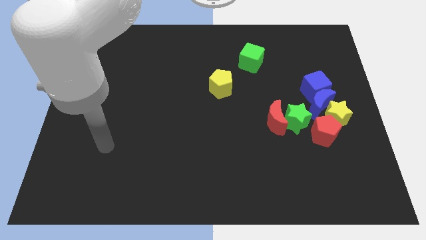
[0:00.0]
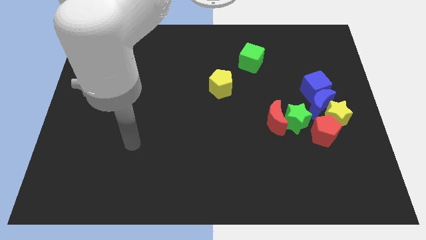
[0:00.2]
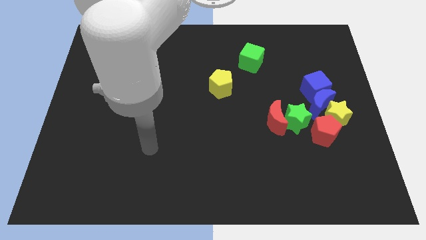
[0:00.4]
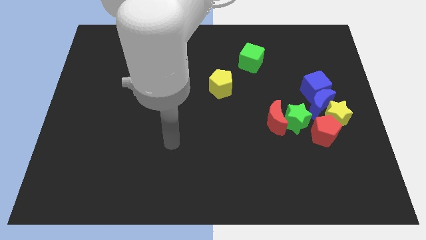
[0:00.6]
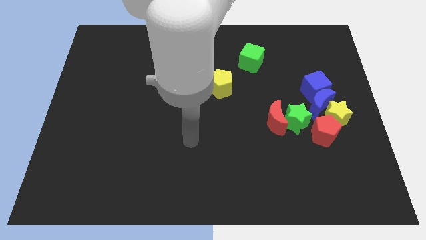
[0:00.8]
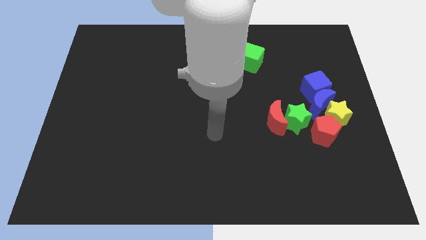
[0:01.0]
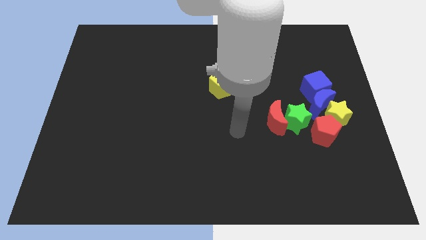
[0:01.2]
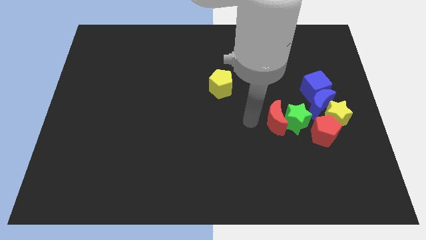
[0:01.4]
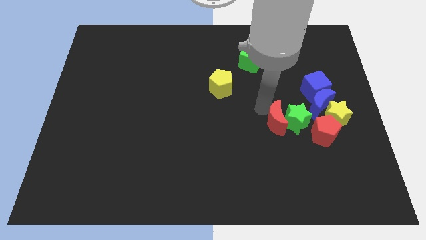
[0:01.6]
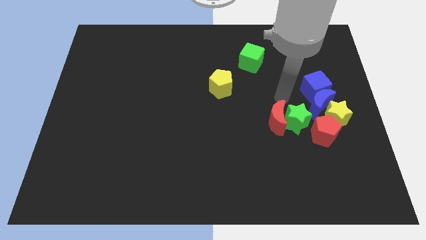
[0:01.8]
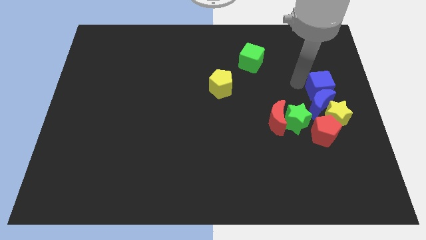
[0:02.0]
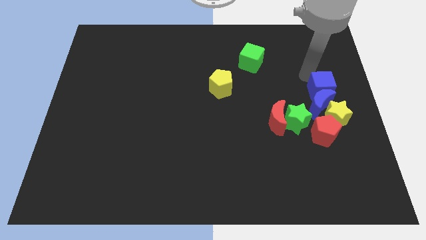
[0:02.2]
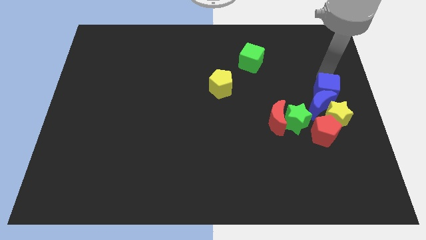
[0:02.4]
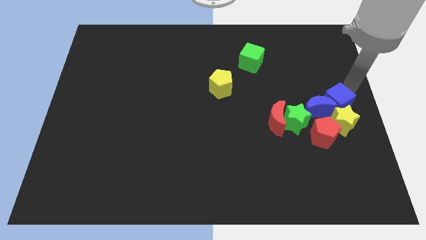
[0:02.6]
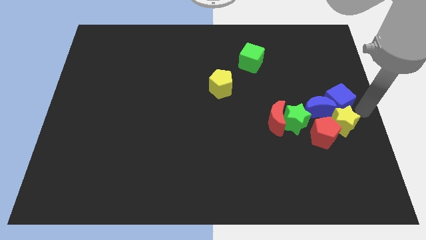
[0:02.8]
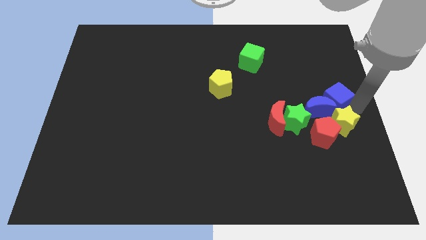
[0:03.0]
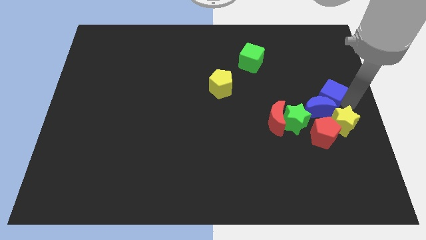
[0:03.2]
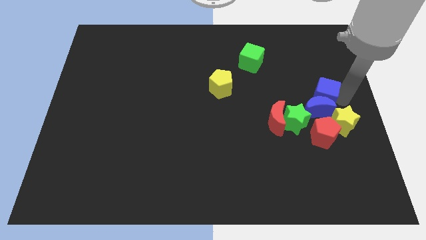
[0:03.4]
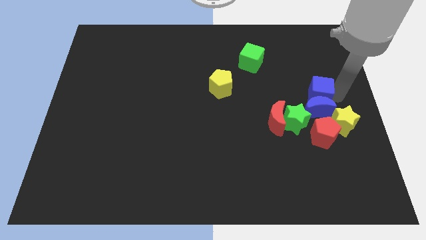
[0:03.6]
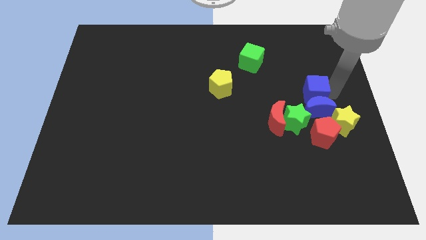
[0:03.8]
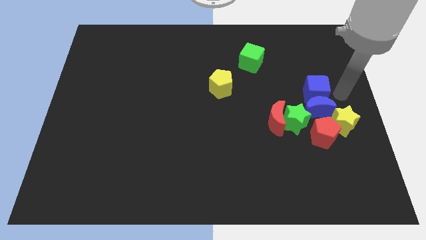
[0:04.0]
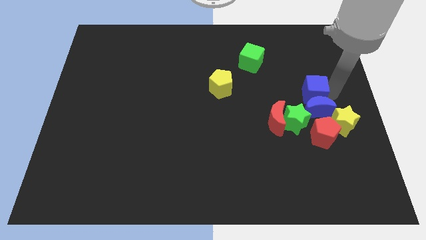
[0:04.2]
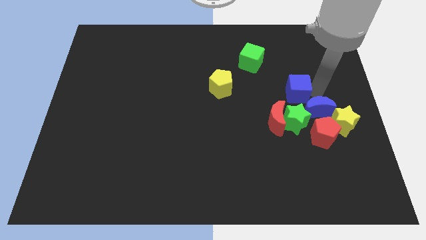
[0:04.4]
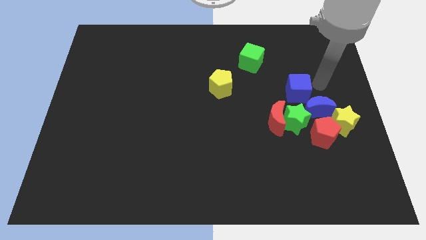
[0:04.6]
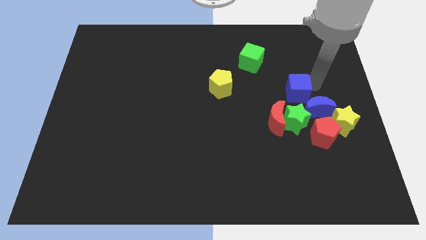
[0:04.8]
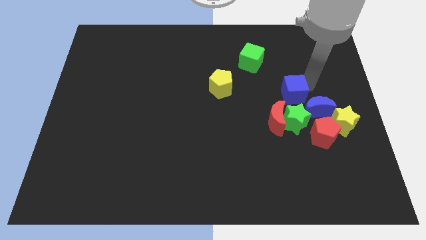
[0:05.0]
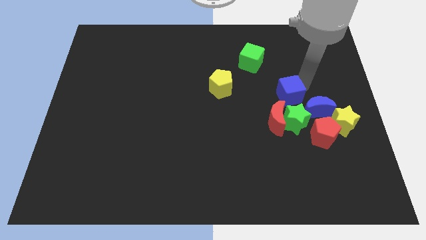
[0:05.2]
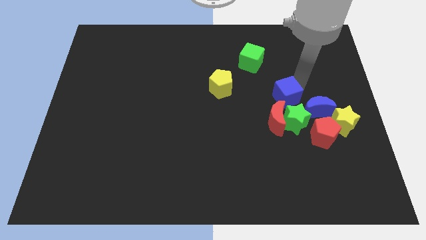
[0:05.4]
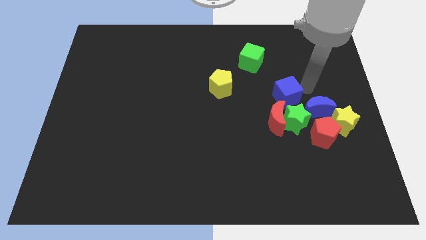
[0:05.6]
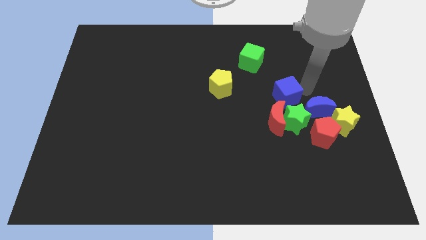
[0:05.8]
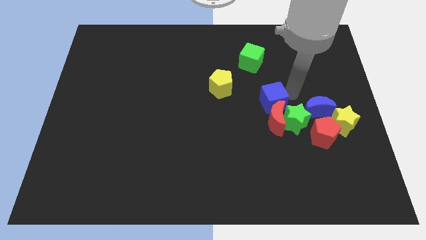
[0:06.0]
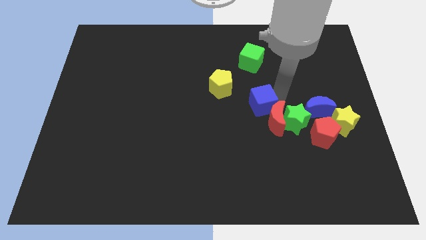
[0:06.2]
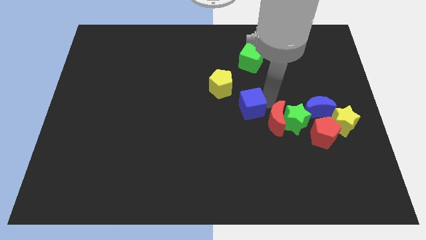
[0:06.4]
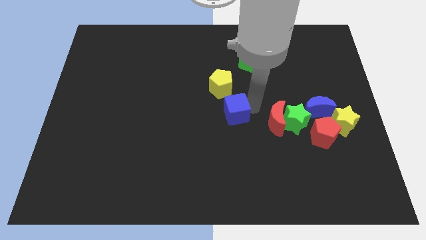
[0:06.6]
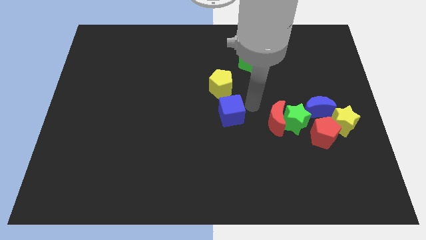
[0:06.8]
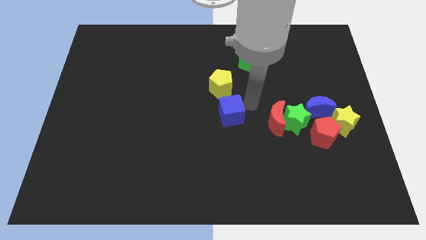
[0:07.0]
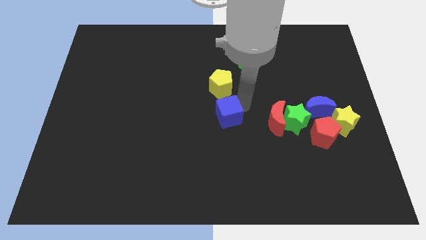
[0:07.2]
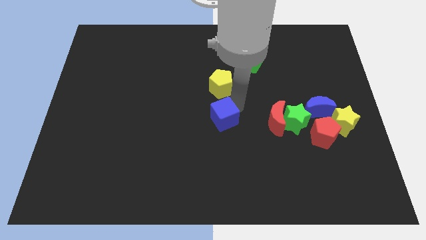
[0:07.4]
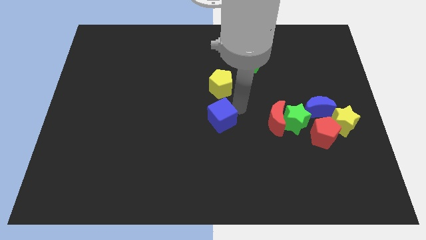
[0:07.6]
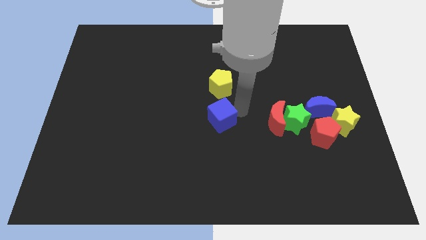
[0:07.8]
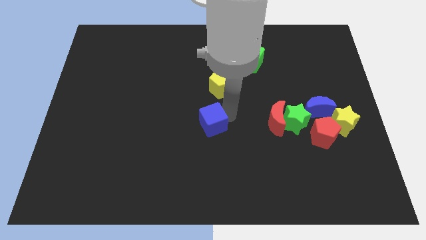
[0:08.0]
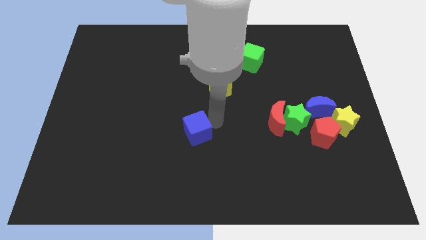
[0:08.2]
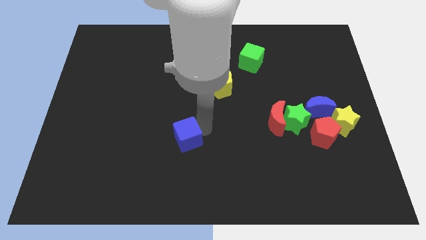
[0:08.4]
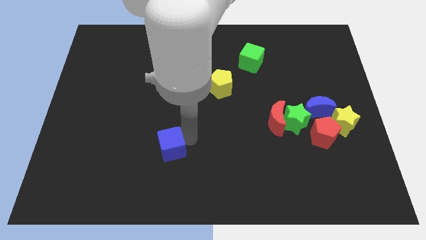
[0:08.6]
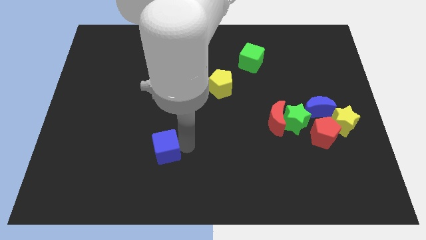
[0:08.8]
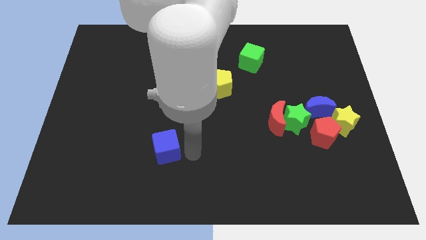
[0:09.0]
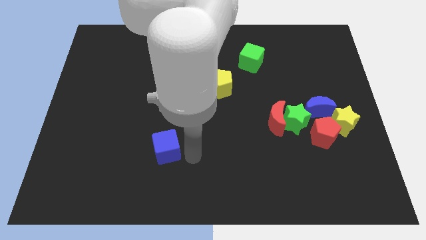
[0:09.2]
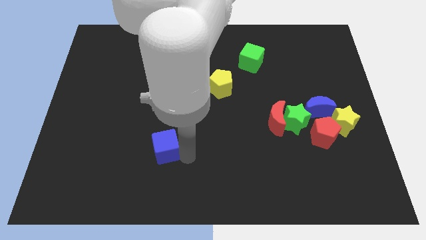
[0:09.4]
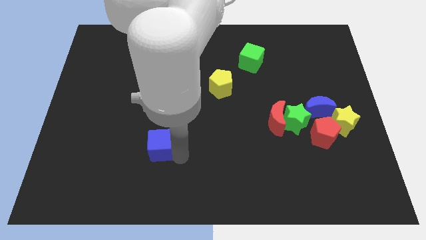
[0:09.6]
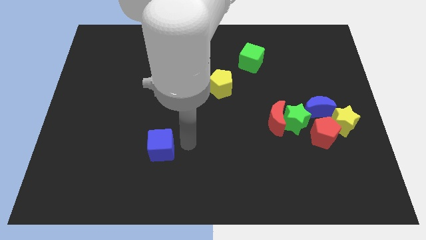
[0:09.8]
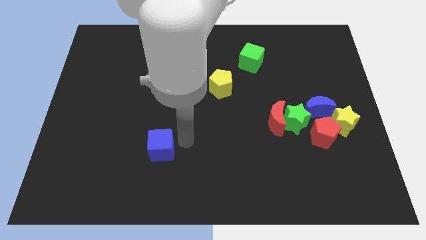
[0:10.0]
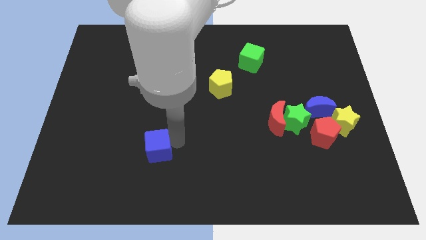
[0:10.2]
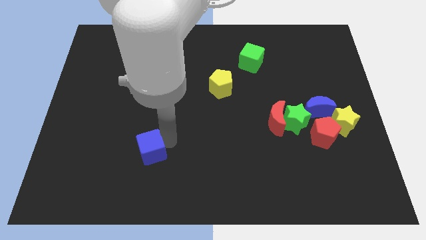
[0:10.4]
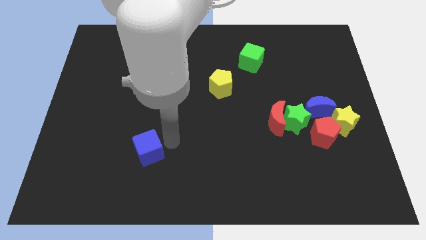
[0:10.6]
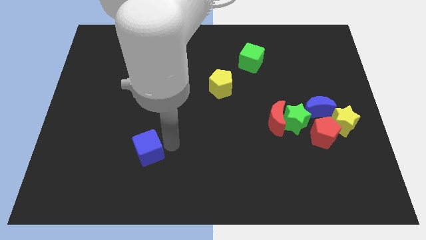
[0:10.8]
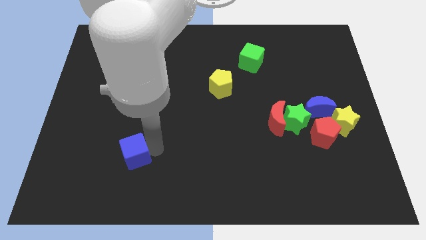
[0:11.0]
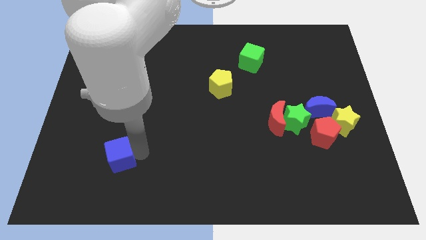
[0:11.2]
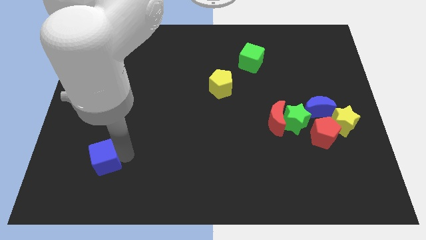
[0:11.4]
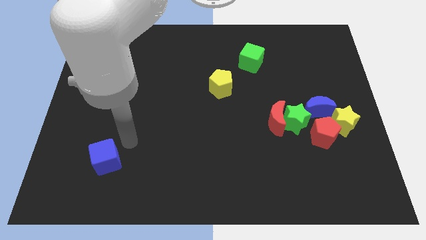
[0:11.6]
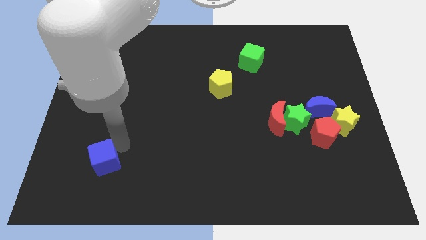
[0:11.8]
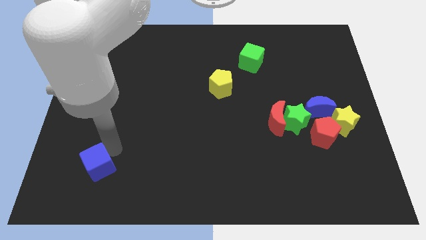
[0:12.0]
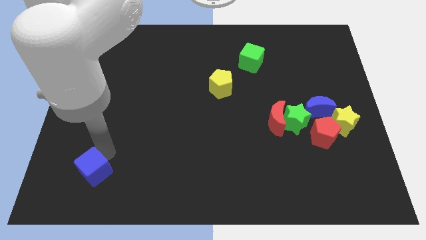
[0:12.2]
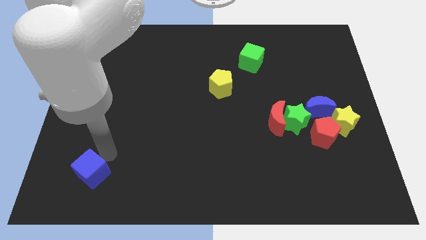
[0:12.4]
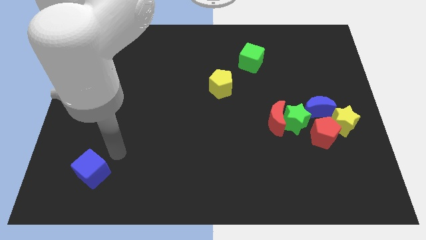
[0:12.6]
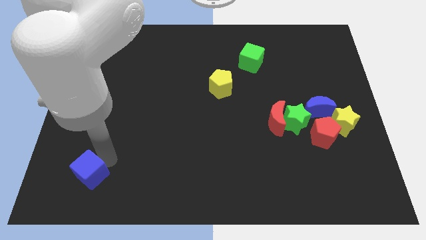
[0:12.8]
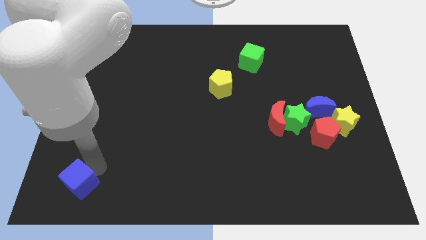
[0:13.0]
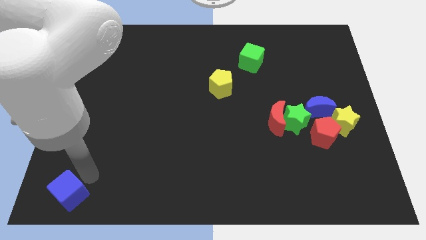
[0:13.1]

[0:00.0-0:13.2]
push the blue cube to the bottom left
